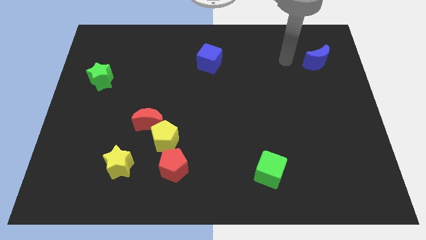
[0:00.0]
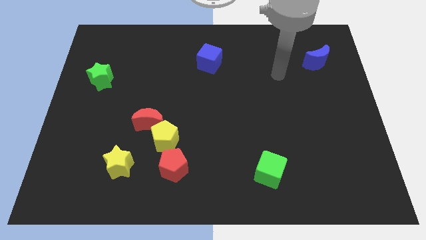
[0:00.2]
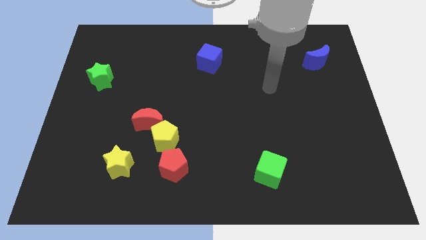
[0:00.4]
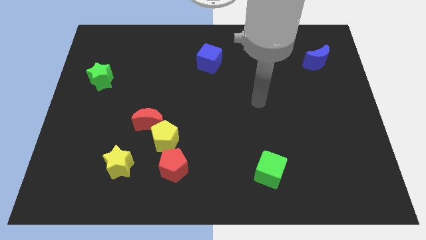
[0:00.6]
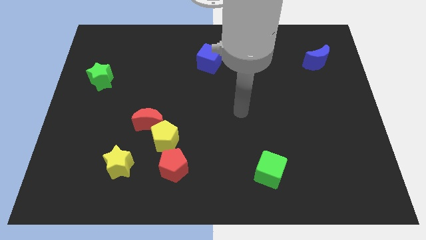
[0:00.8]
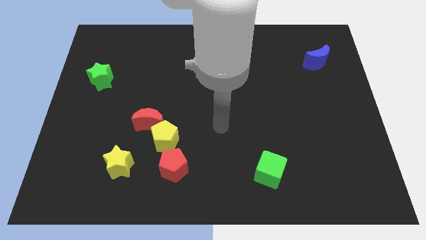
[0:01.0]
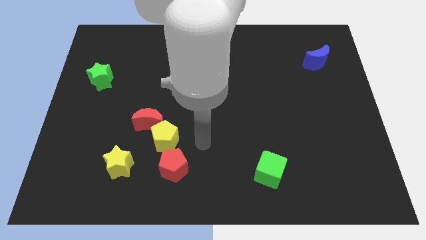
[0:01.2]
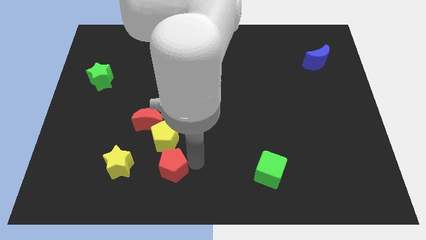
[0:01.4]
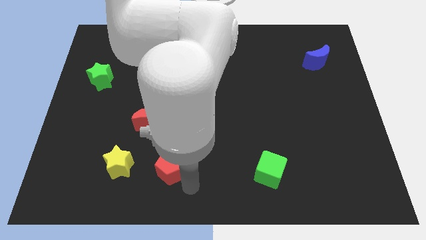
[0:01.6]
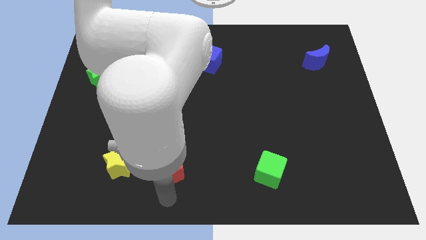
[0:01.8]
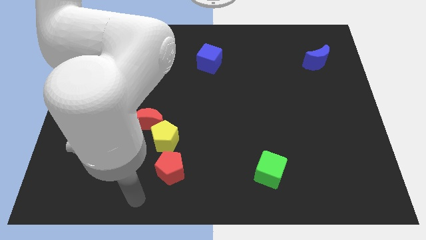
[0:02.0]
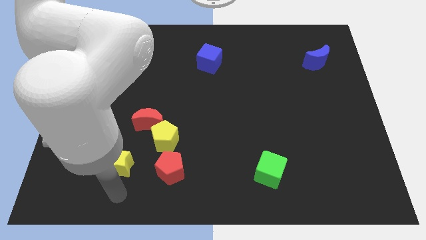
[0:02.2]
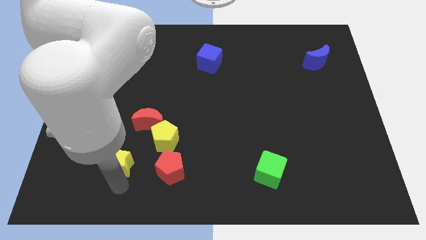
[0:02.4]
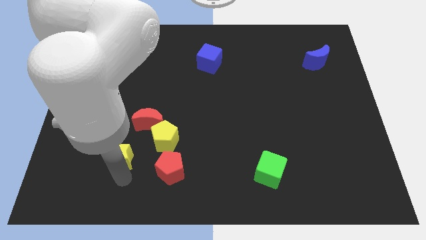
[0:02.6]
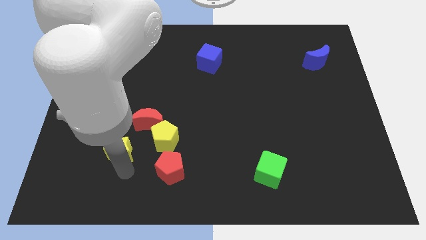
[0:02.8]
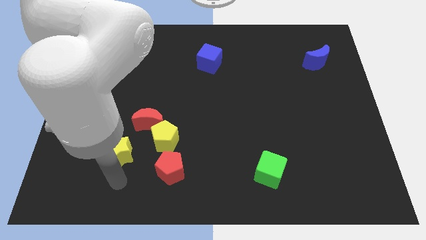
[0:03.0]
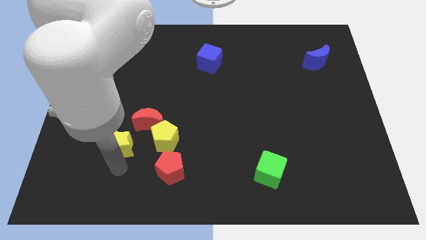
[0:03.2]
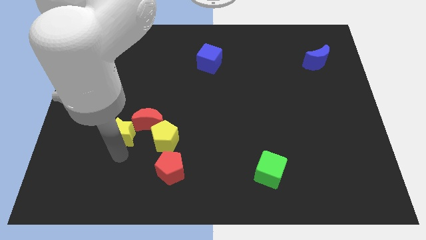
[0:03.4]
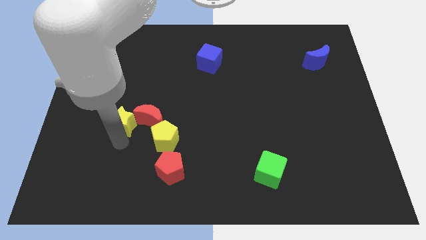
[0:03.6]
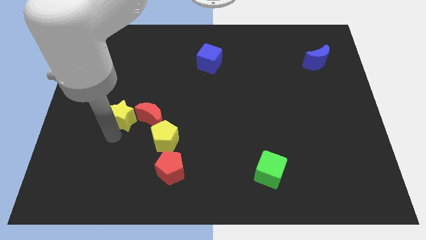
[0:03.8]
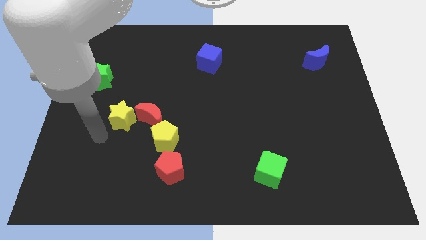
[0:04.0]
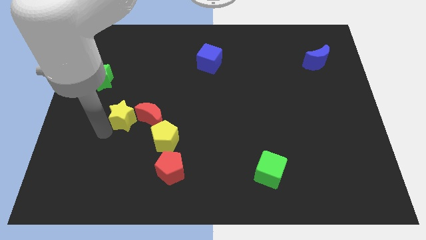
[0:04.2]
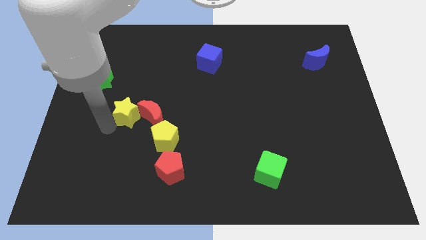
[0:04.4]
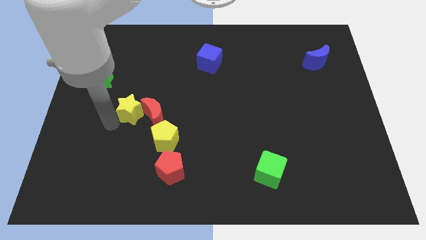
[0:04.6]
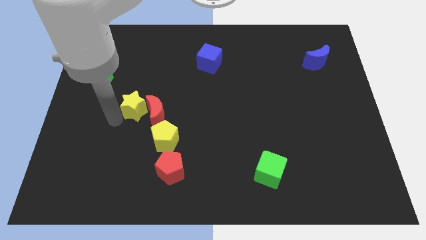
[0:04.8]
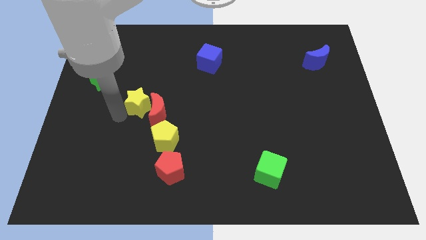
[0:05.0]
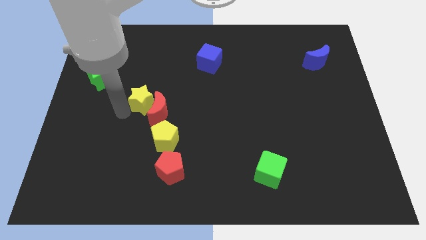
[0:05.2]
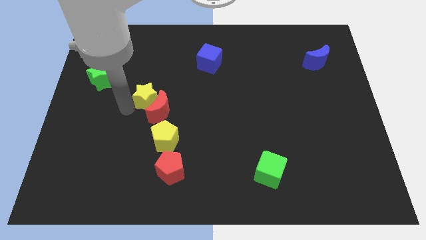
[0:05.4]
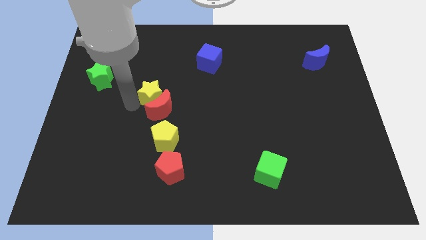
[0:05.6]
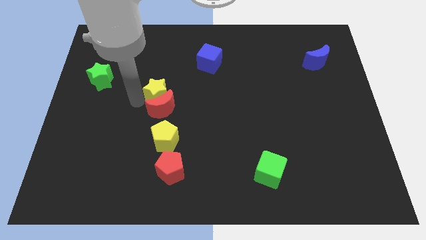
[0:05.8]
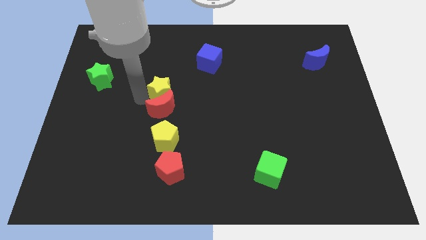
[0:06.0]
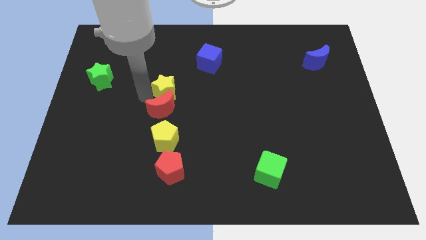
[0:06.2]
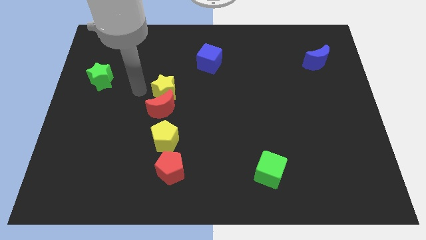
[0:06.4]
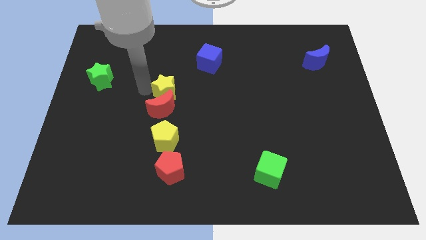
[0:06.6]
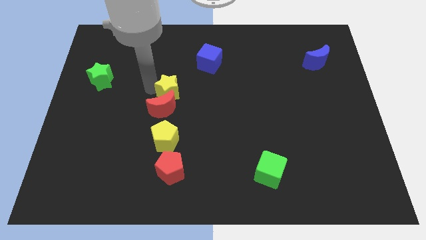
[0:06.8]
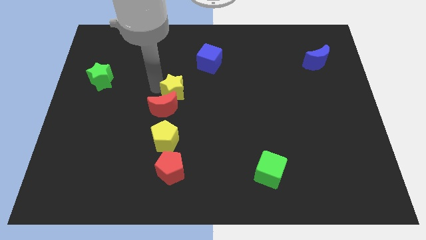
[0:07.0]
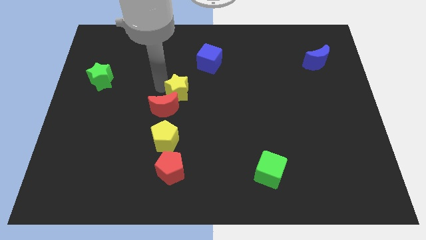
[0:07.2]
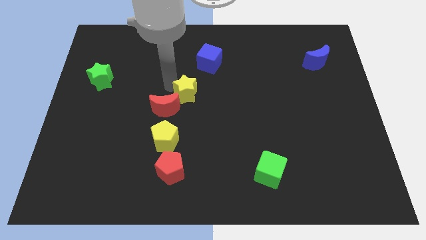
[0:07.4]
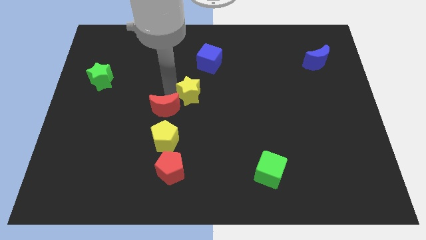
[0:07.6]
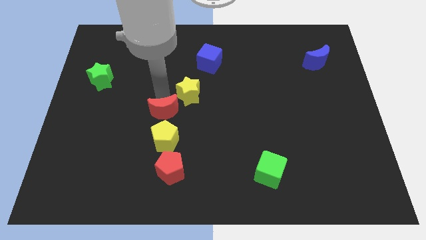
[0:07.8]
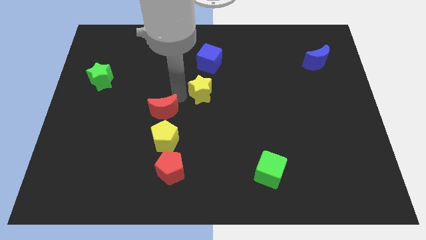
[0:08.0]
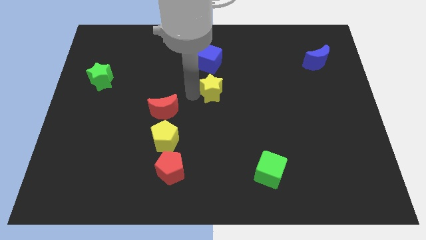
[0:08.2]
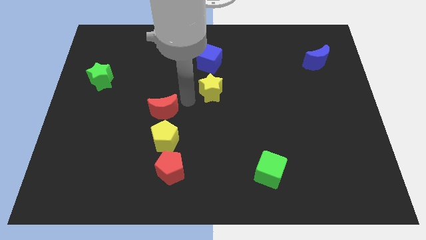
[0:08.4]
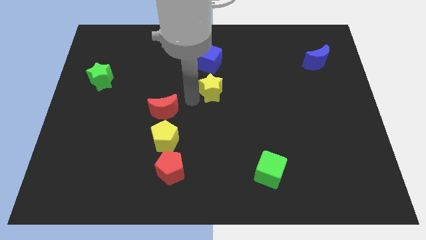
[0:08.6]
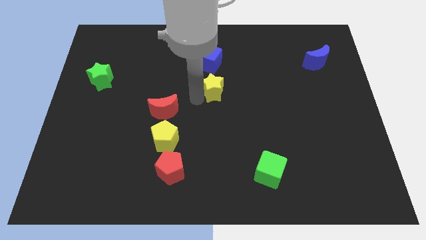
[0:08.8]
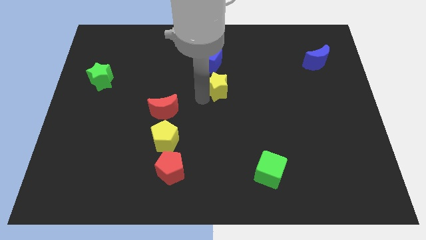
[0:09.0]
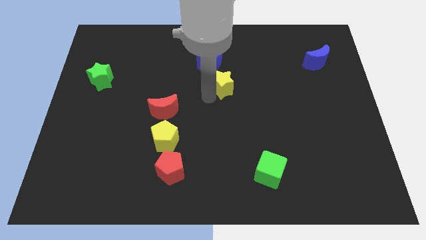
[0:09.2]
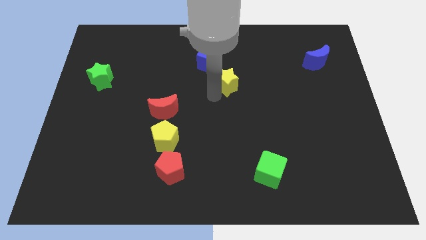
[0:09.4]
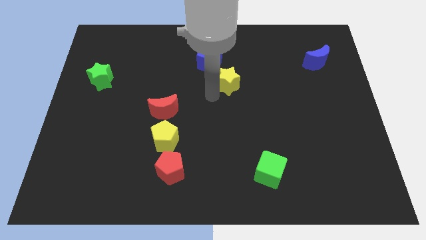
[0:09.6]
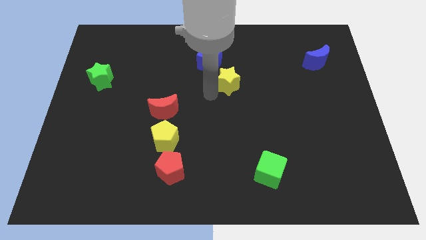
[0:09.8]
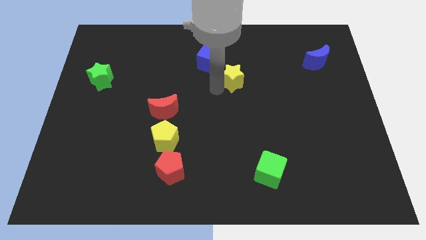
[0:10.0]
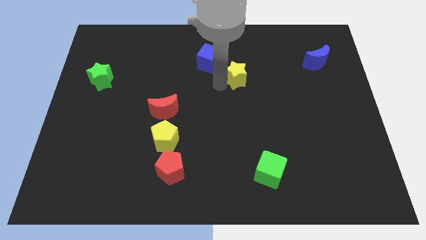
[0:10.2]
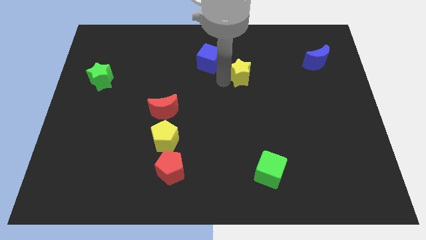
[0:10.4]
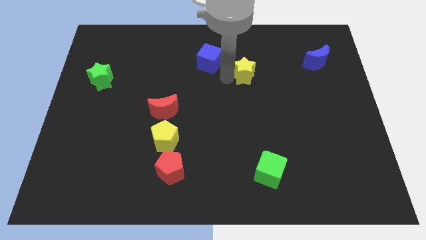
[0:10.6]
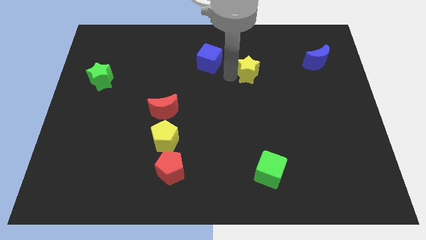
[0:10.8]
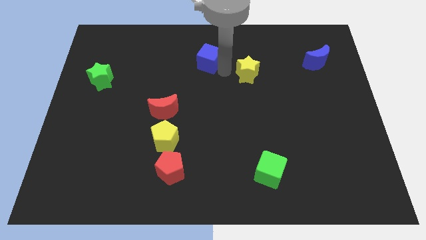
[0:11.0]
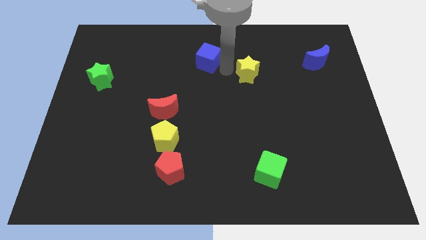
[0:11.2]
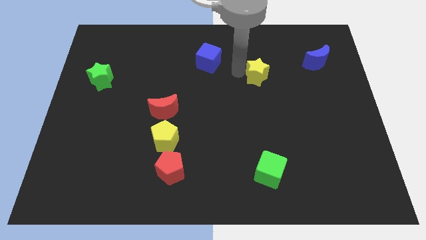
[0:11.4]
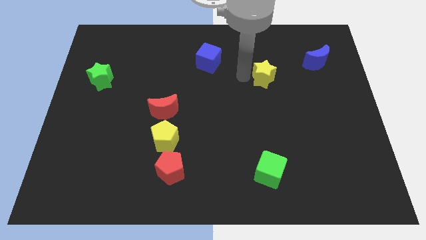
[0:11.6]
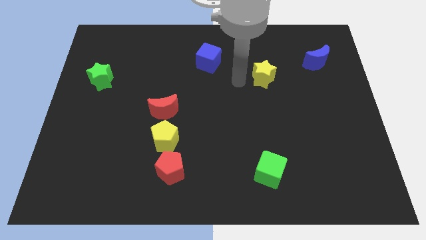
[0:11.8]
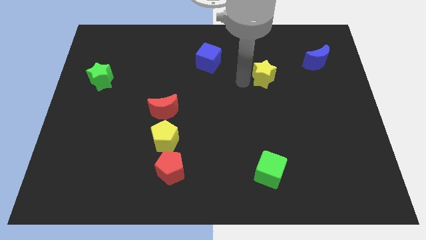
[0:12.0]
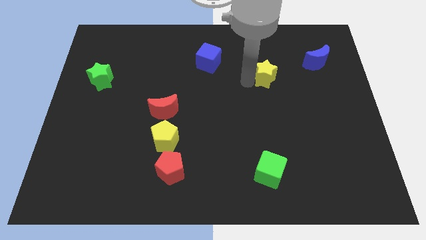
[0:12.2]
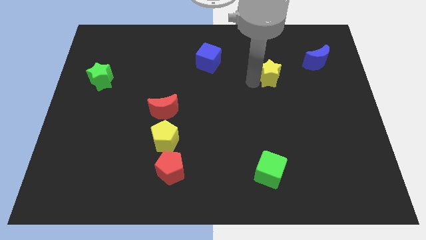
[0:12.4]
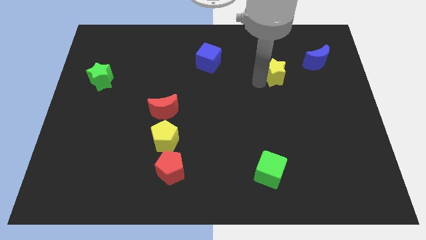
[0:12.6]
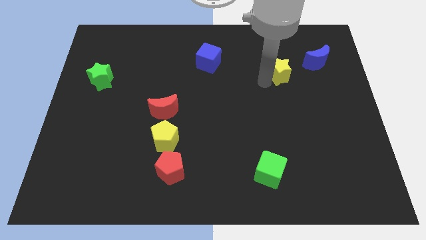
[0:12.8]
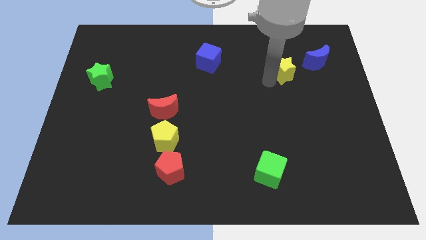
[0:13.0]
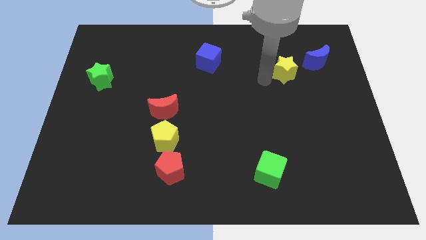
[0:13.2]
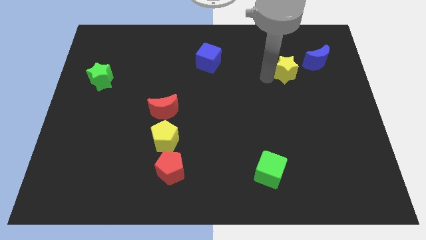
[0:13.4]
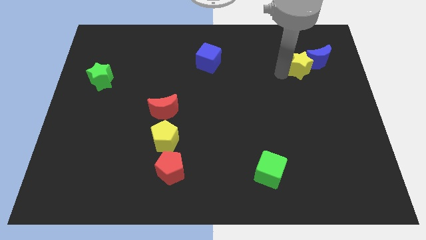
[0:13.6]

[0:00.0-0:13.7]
slide the yellow star next to the blue moon
